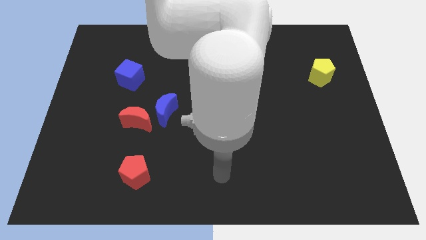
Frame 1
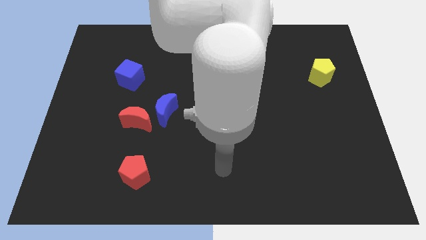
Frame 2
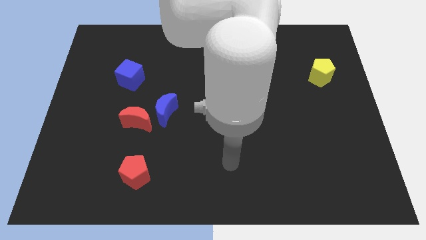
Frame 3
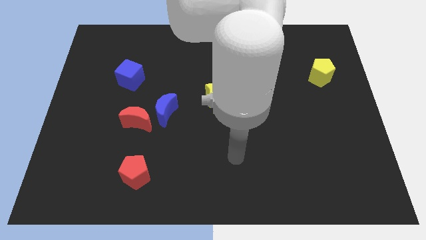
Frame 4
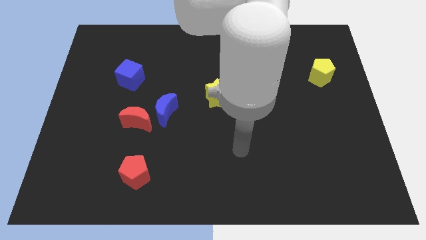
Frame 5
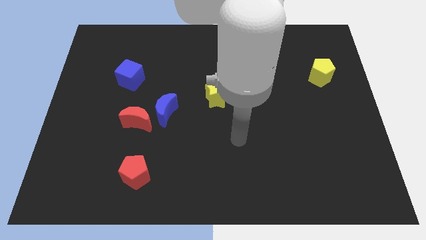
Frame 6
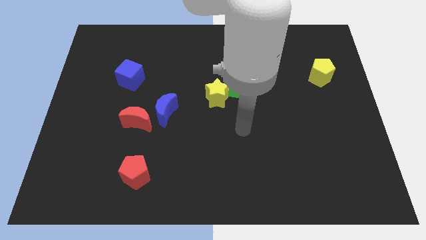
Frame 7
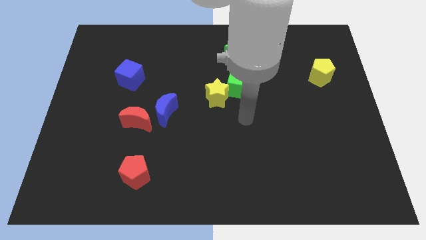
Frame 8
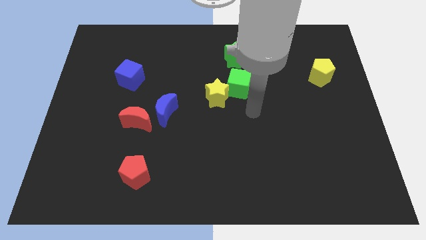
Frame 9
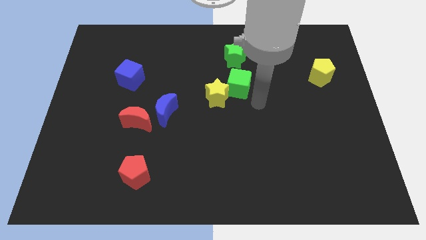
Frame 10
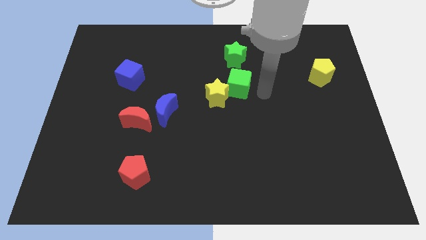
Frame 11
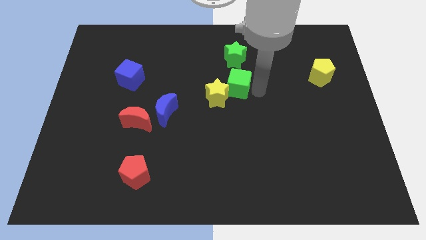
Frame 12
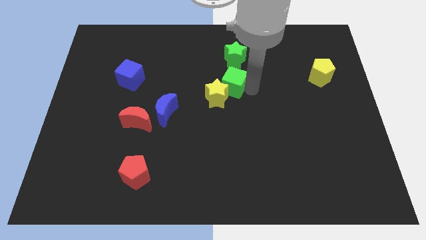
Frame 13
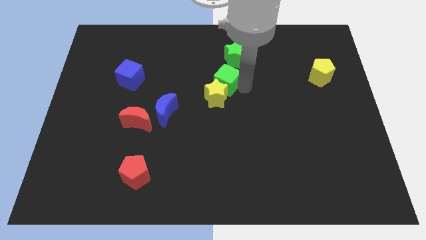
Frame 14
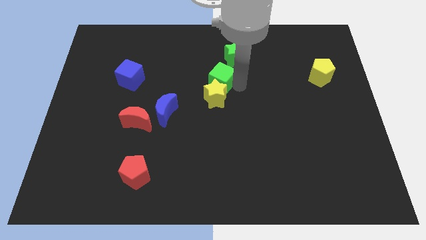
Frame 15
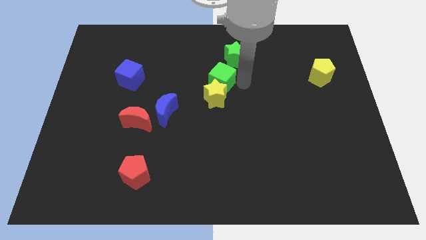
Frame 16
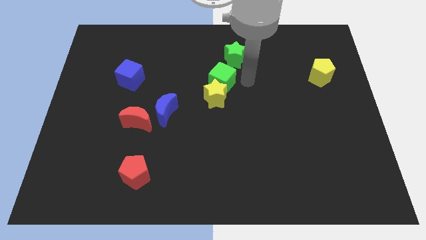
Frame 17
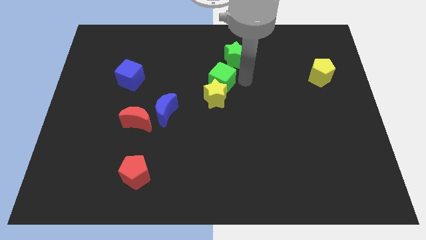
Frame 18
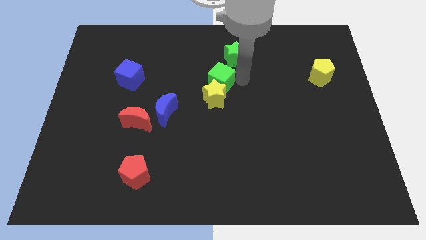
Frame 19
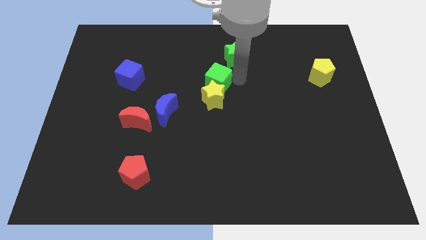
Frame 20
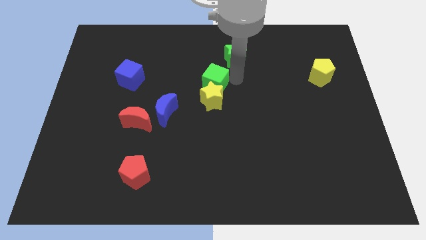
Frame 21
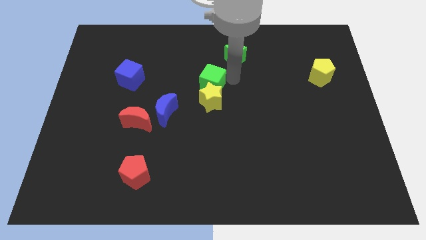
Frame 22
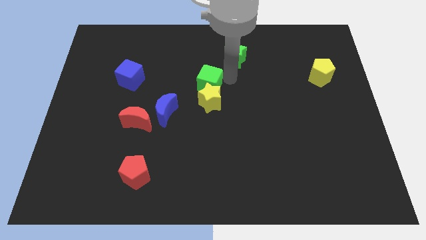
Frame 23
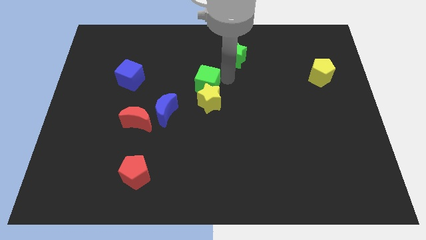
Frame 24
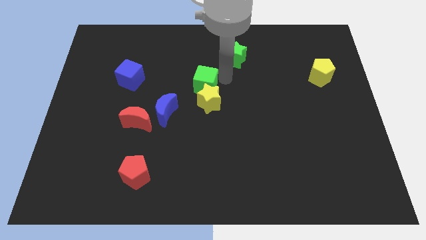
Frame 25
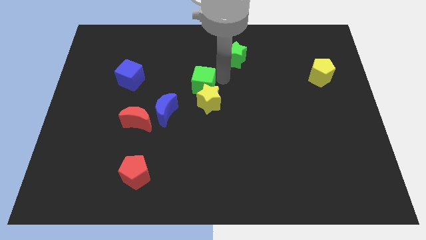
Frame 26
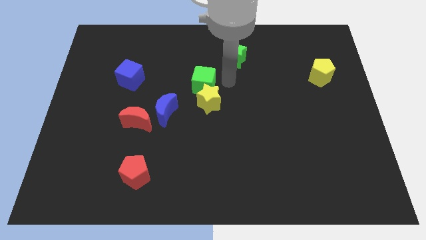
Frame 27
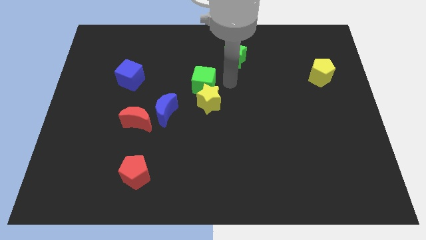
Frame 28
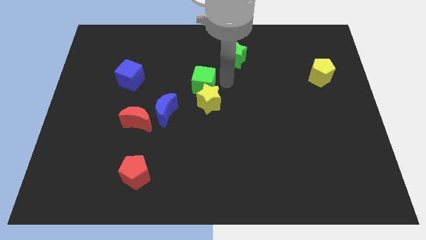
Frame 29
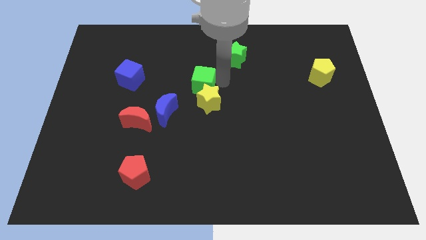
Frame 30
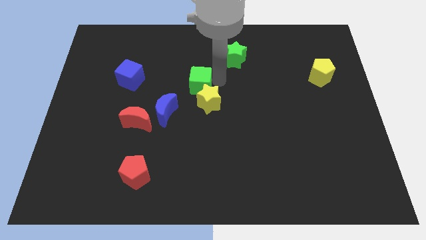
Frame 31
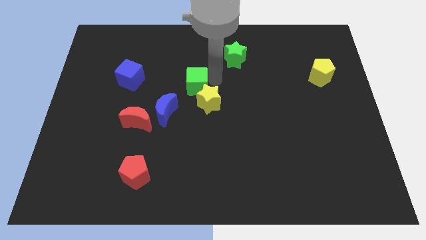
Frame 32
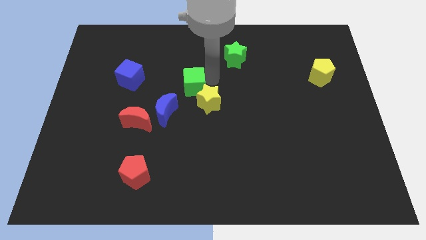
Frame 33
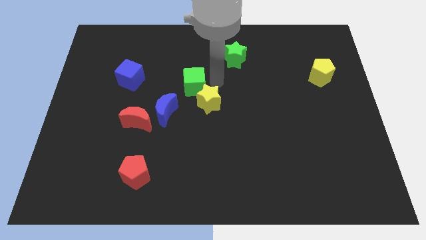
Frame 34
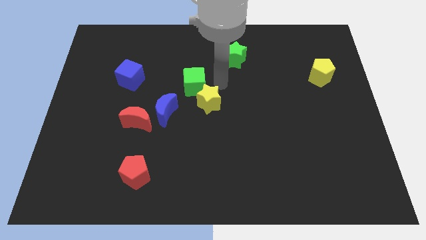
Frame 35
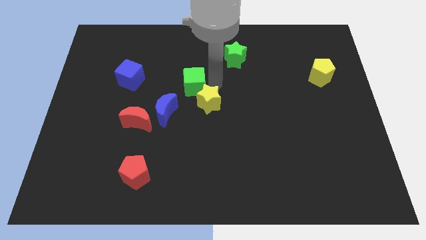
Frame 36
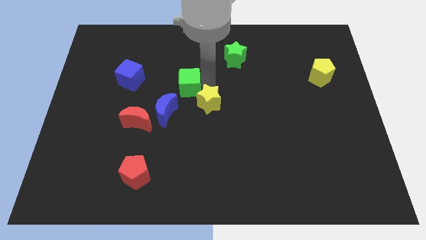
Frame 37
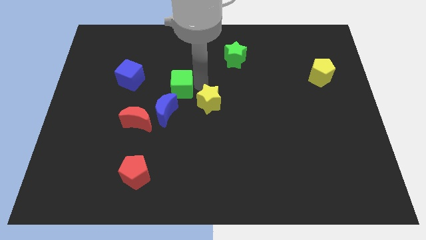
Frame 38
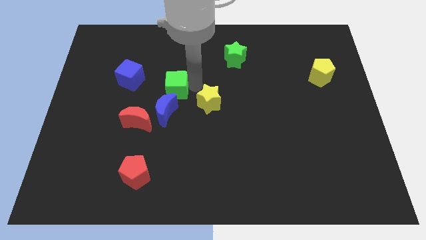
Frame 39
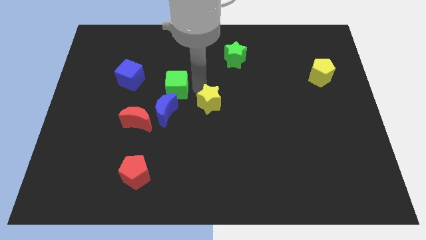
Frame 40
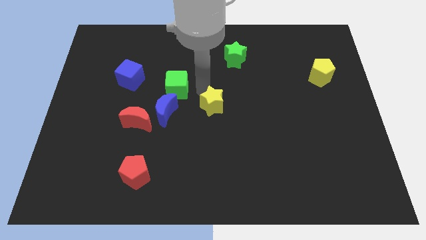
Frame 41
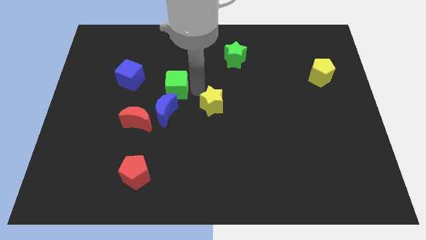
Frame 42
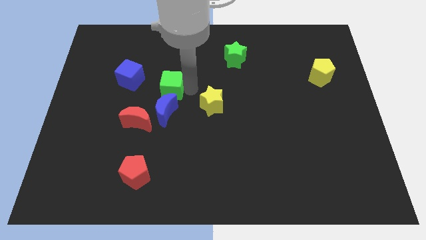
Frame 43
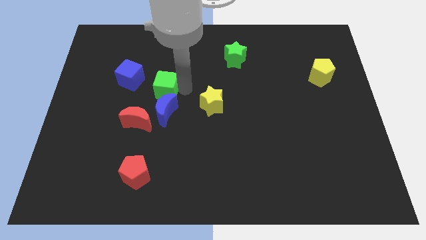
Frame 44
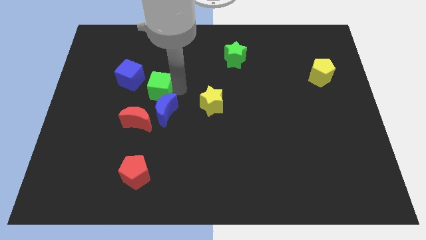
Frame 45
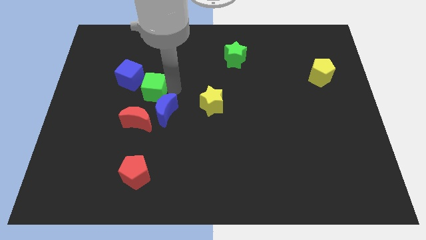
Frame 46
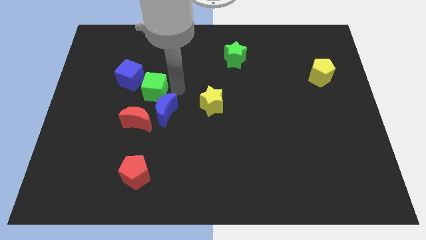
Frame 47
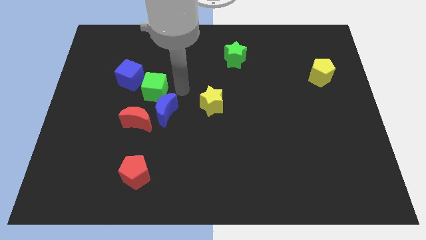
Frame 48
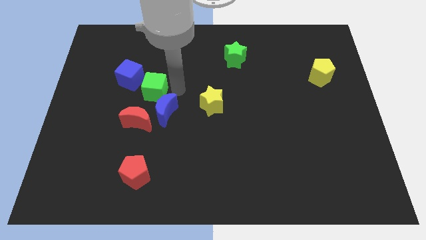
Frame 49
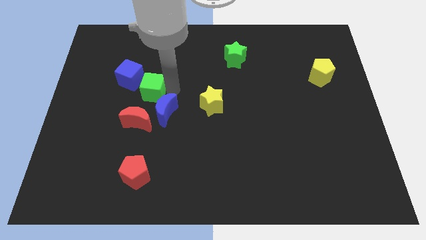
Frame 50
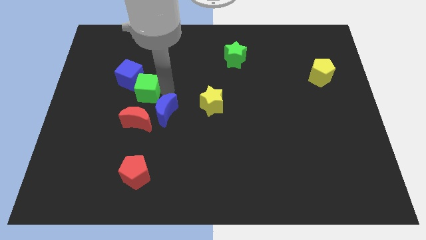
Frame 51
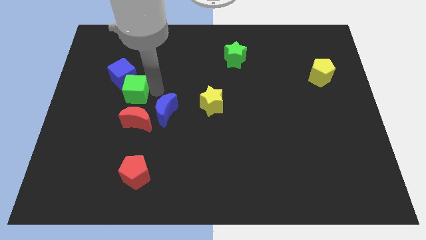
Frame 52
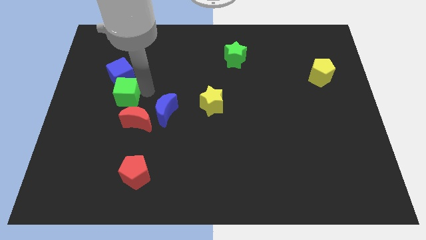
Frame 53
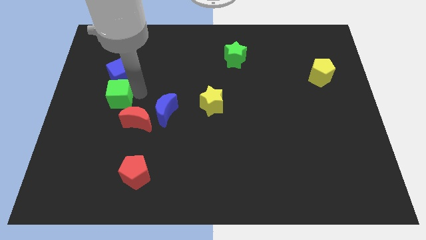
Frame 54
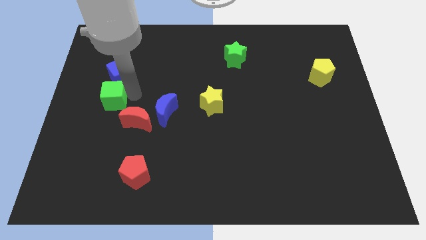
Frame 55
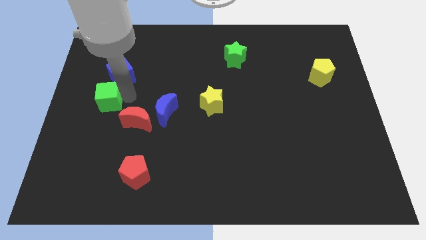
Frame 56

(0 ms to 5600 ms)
push the green cube to the center left
